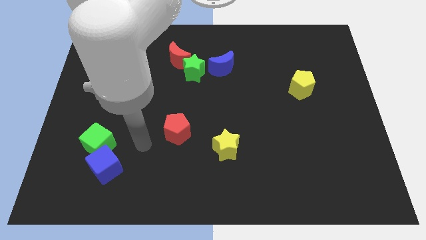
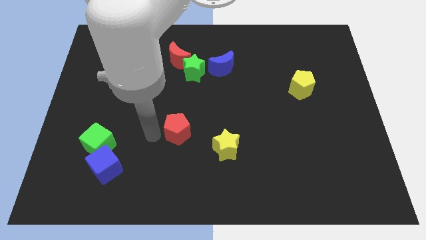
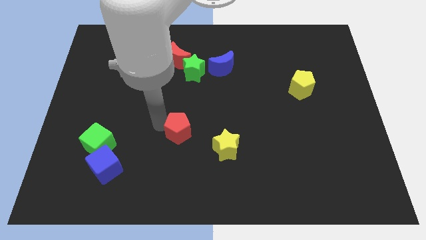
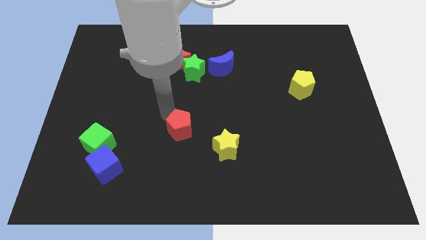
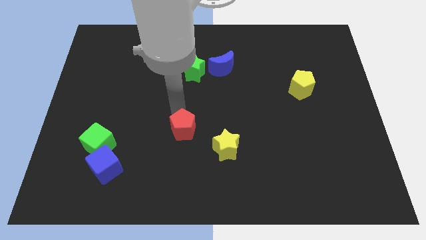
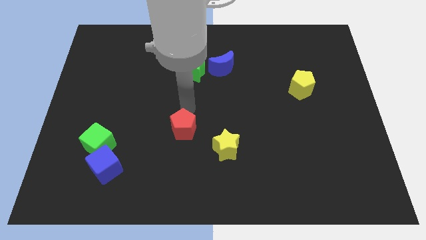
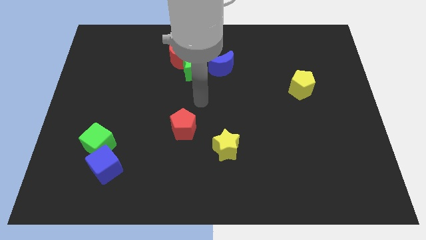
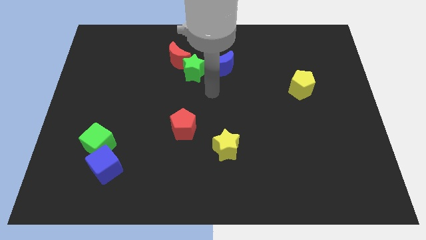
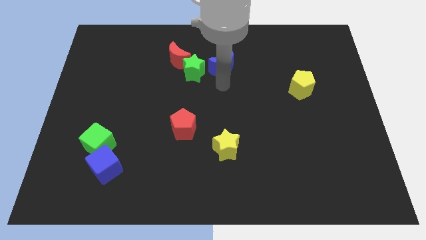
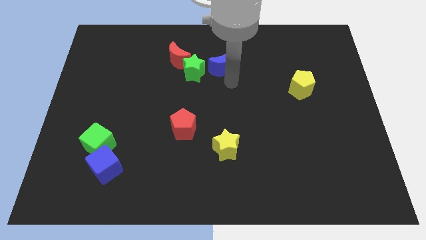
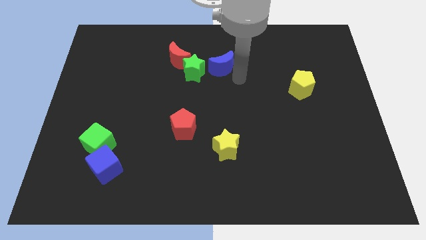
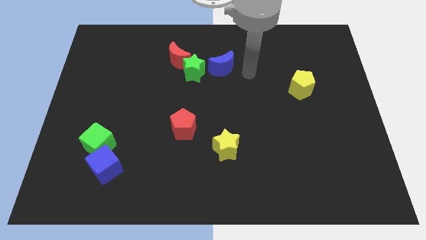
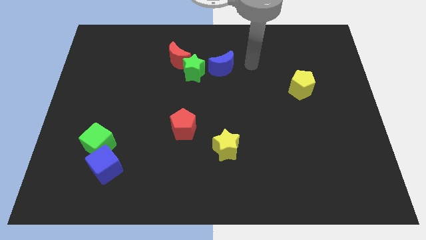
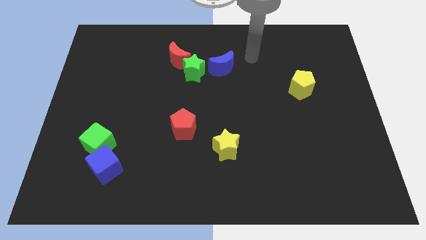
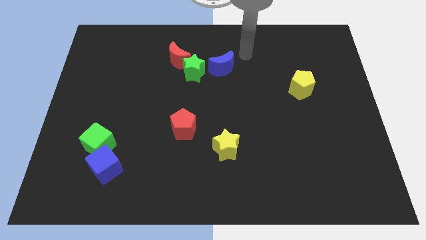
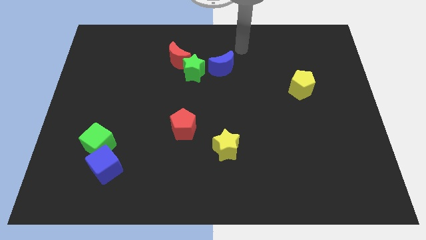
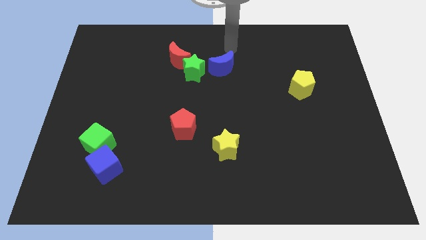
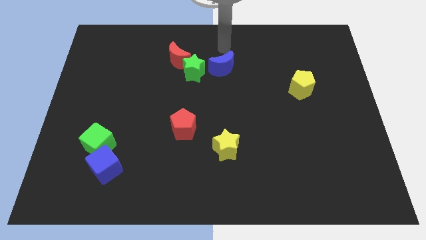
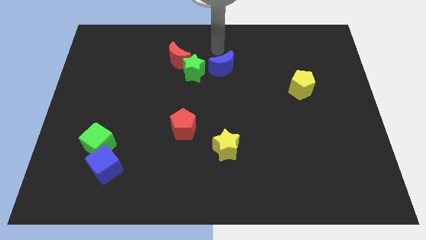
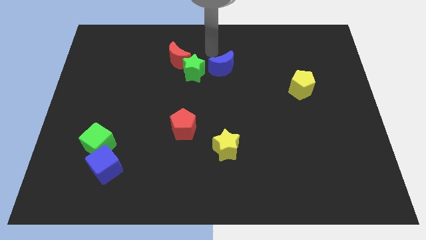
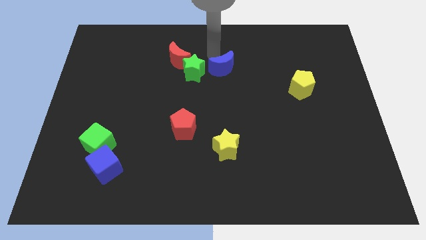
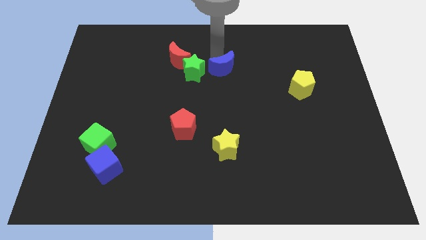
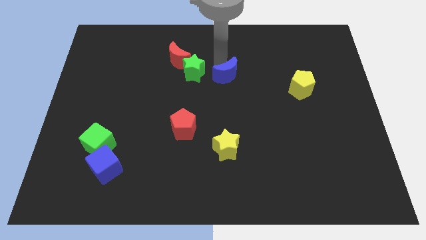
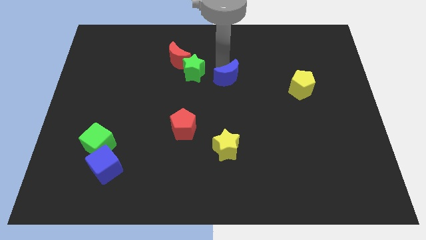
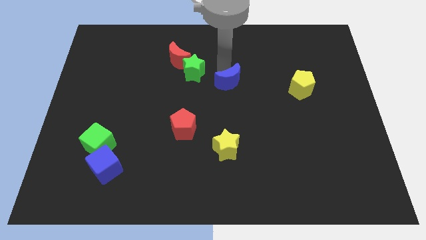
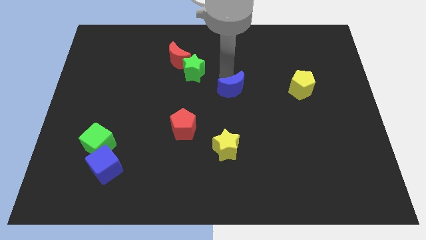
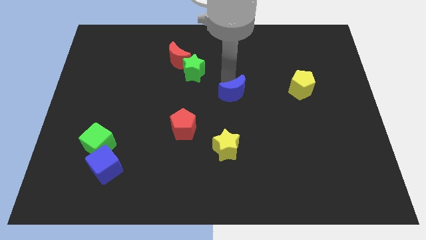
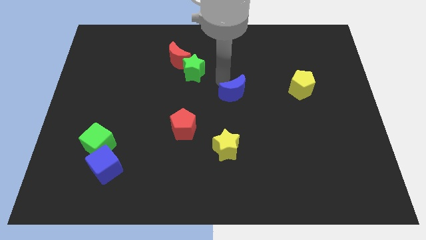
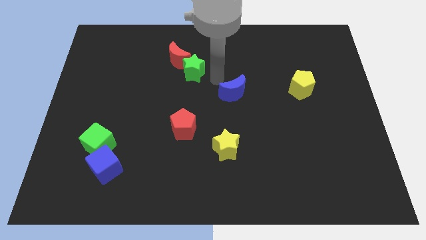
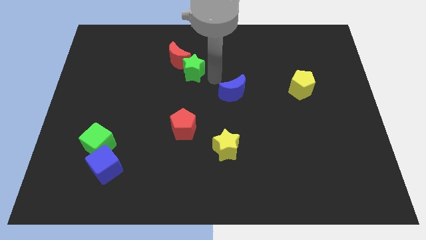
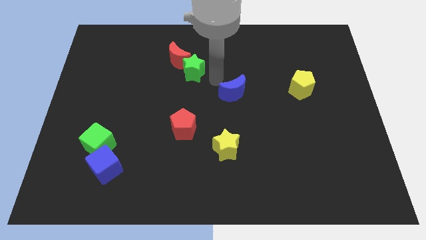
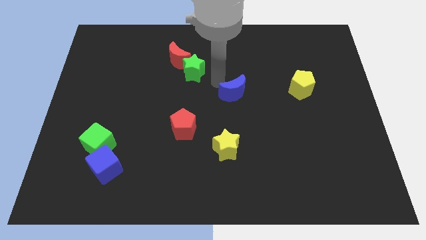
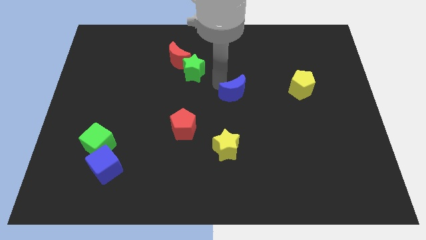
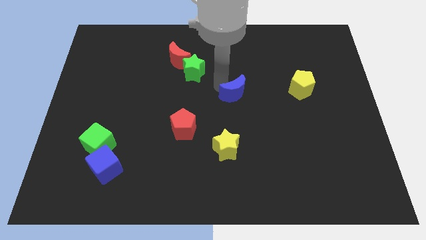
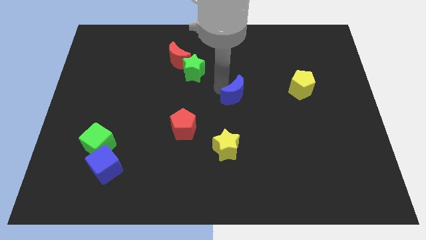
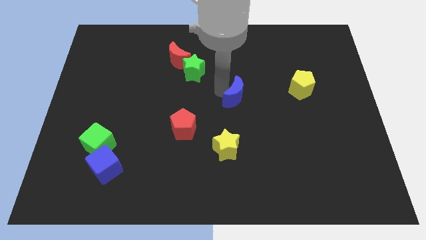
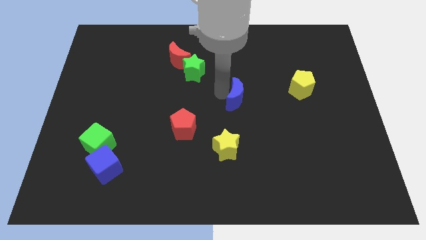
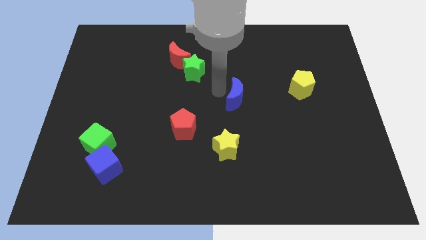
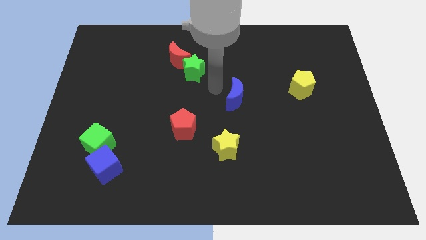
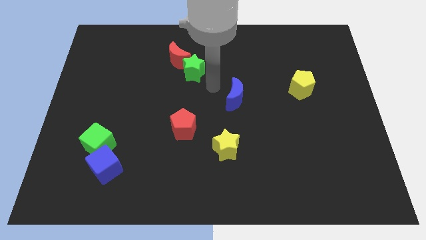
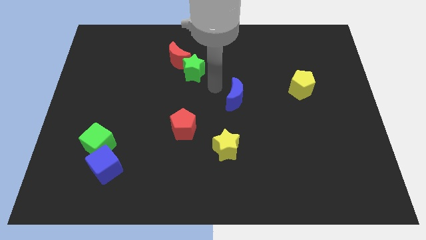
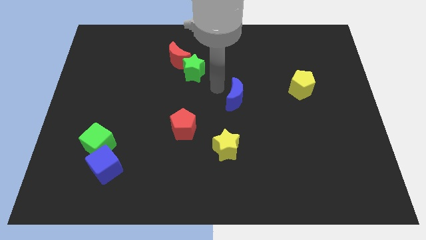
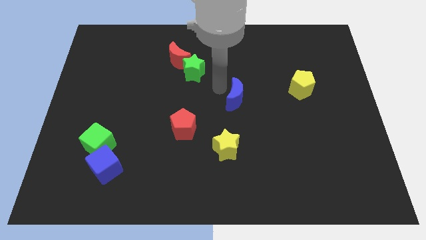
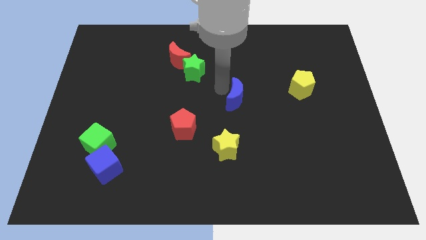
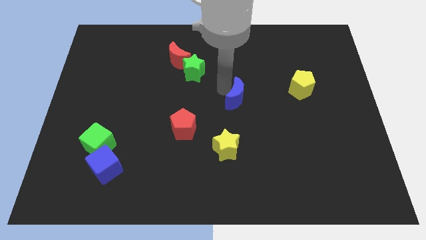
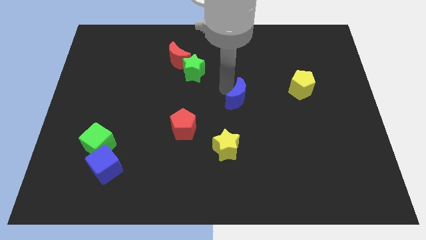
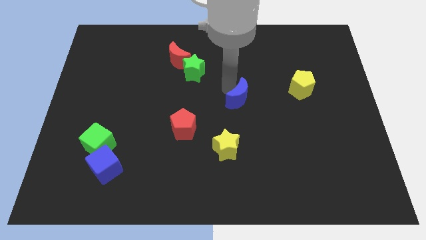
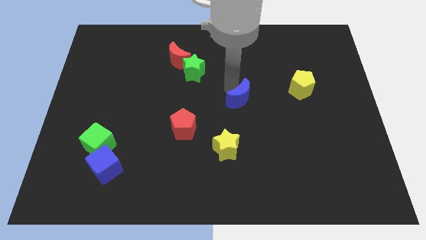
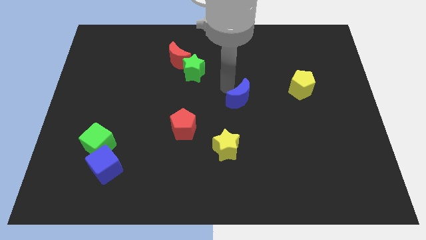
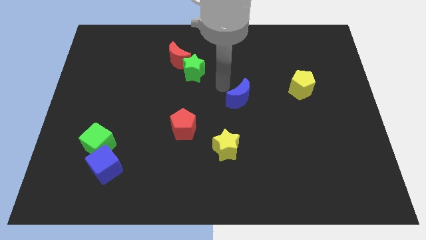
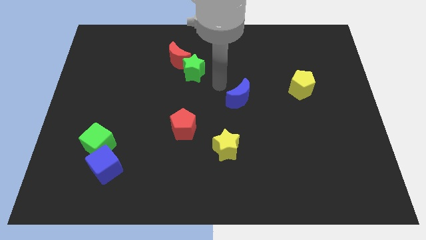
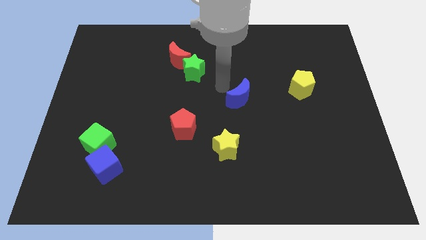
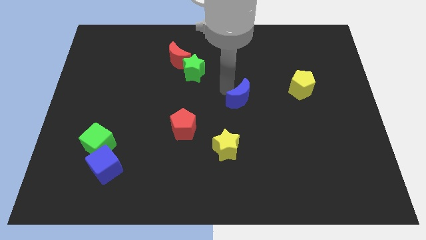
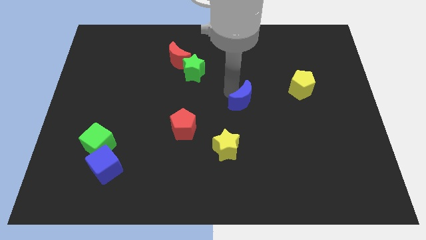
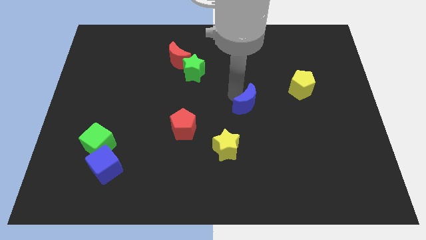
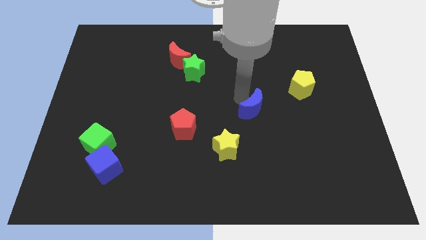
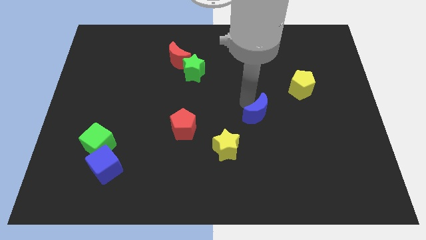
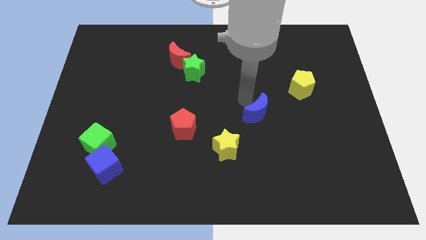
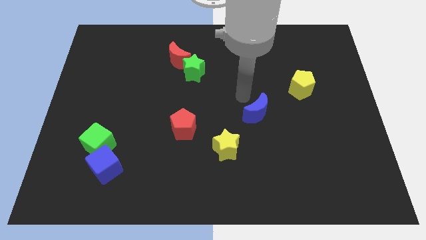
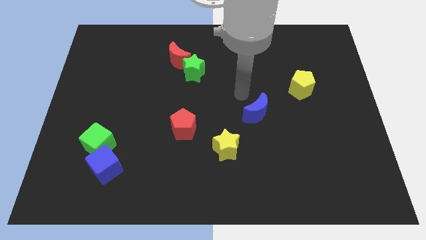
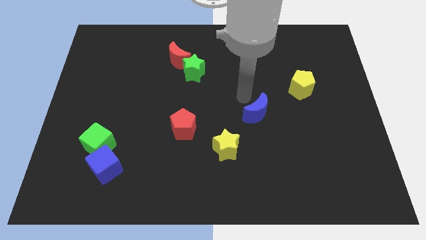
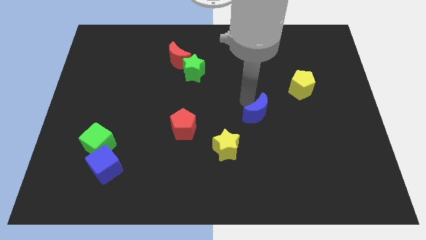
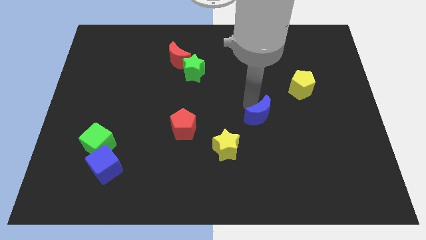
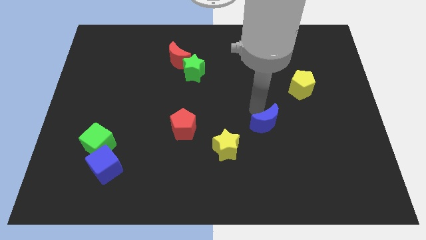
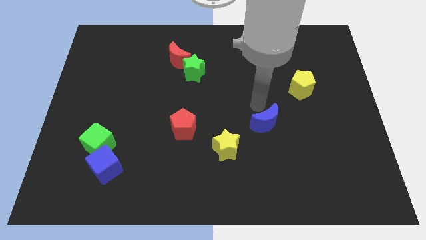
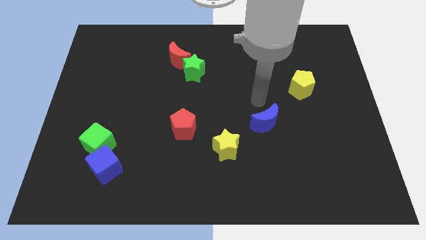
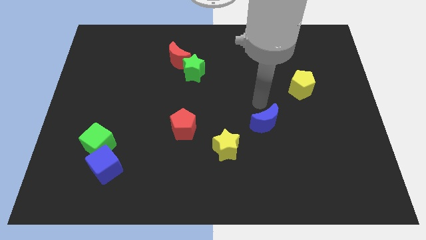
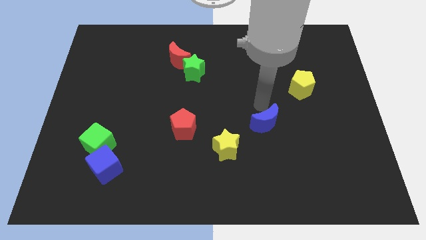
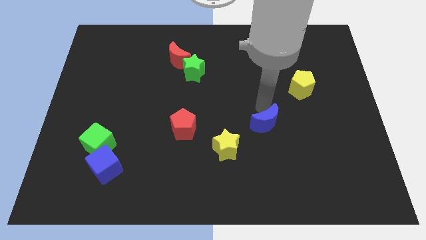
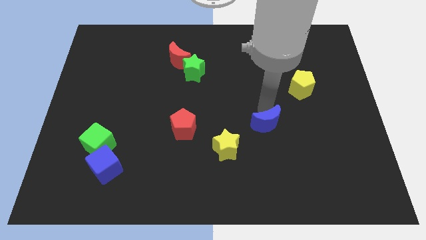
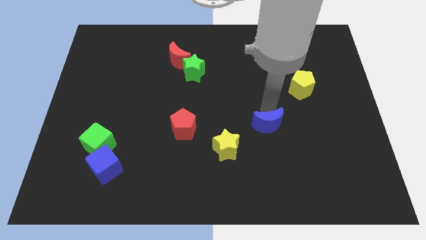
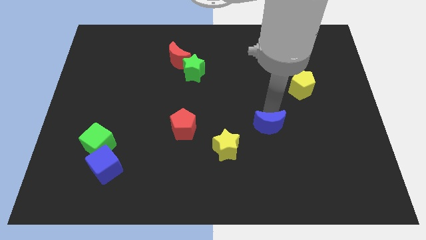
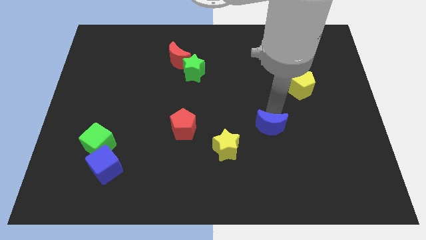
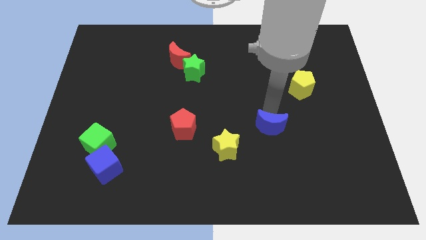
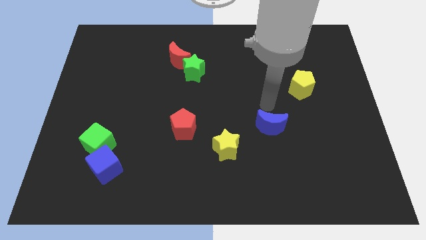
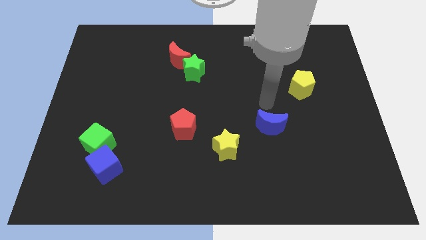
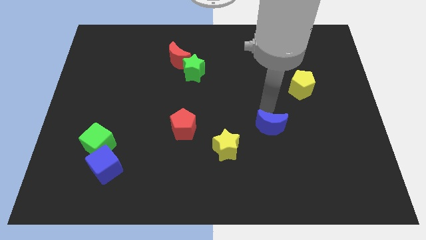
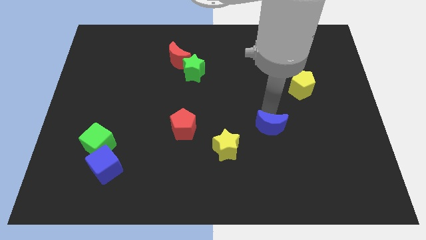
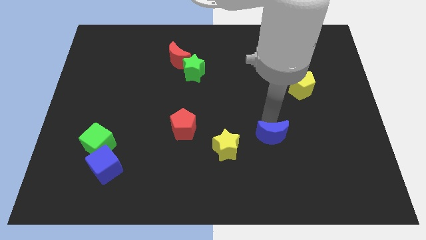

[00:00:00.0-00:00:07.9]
slide the blue moon to the right side of the yellow star
